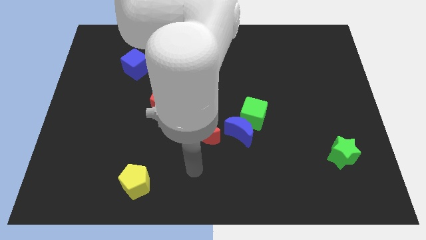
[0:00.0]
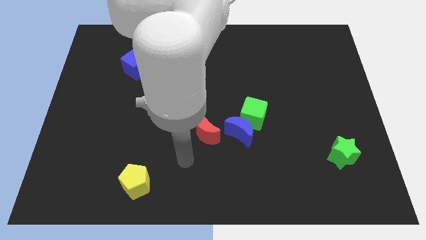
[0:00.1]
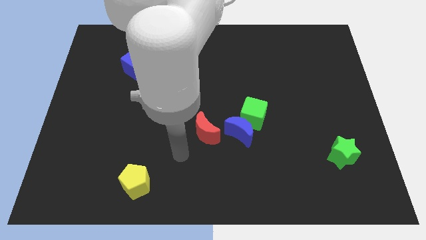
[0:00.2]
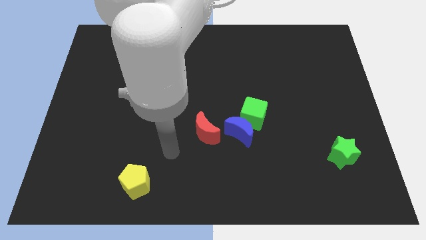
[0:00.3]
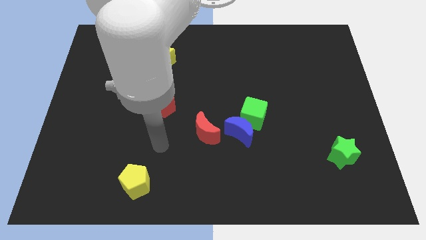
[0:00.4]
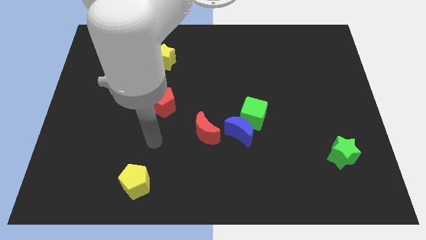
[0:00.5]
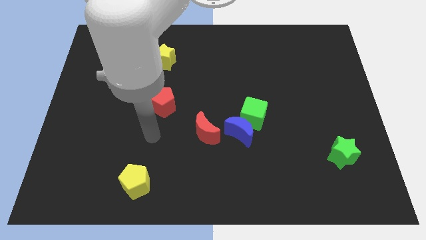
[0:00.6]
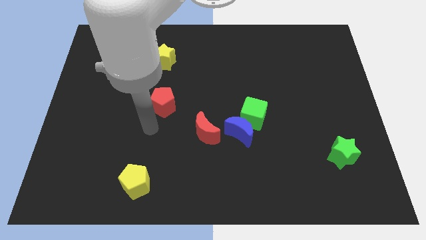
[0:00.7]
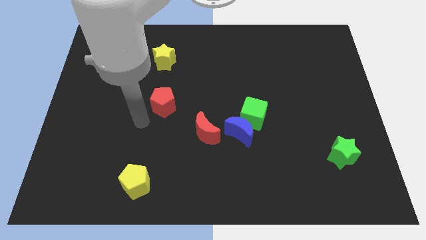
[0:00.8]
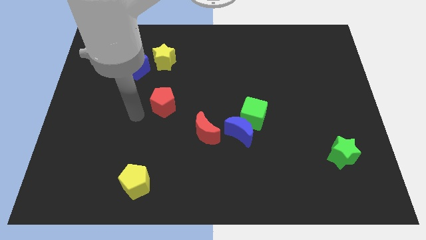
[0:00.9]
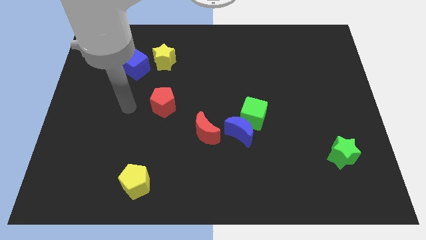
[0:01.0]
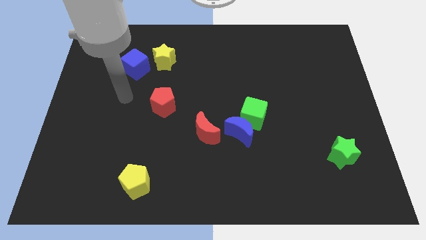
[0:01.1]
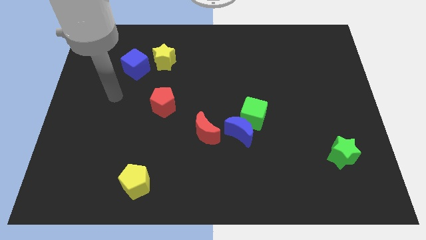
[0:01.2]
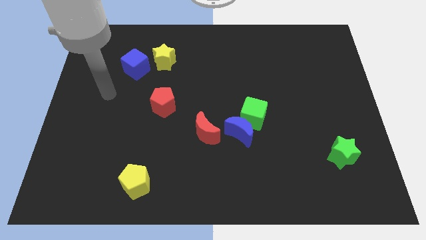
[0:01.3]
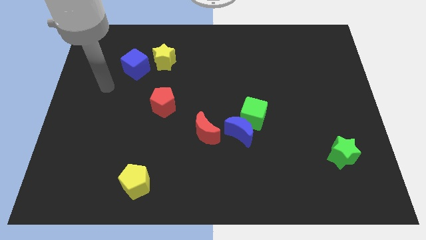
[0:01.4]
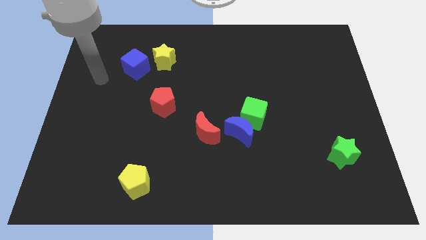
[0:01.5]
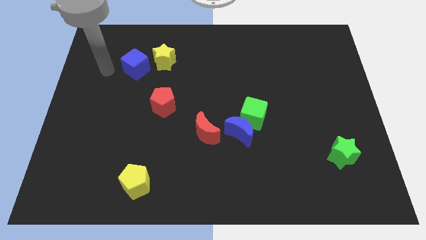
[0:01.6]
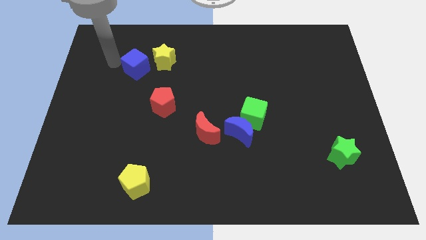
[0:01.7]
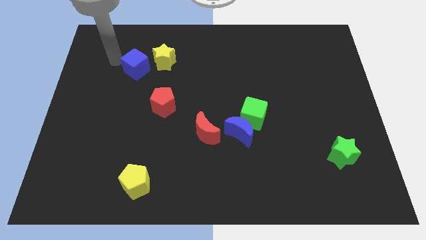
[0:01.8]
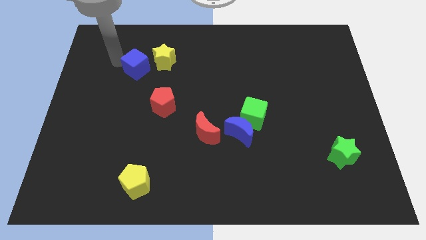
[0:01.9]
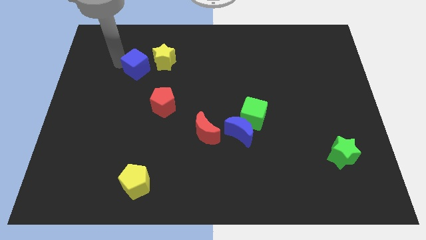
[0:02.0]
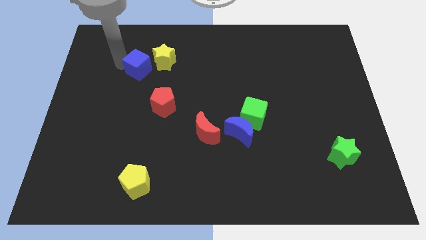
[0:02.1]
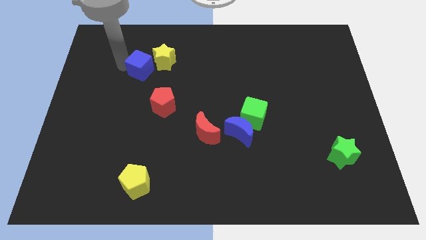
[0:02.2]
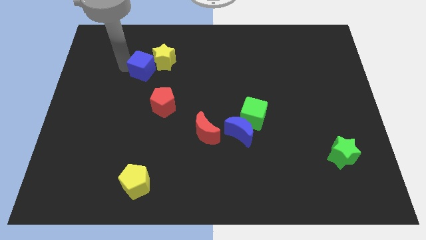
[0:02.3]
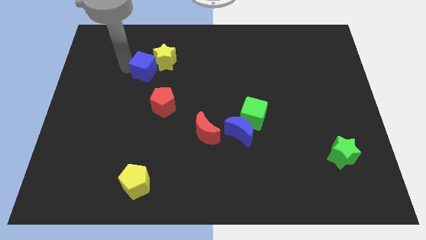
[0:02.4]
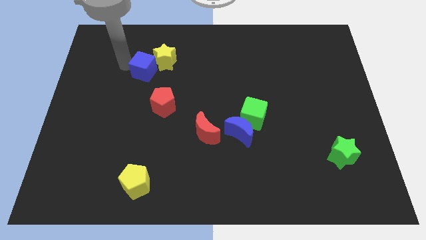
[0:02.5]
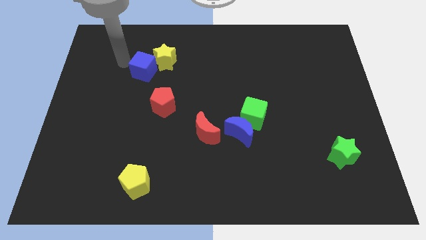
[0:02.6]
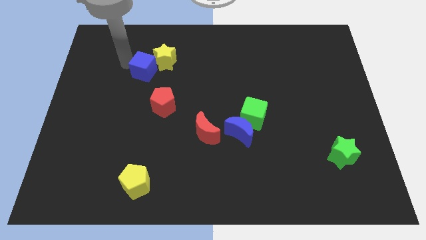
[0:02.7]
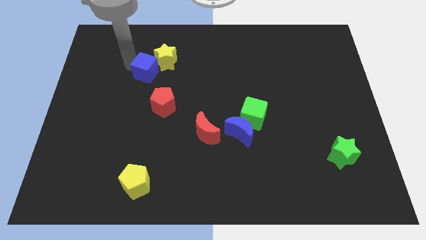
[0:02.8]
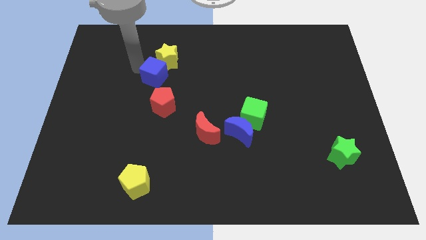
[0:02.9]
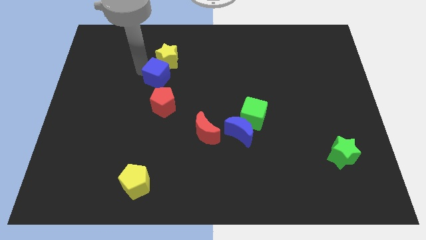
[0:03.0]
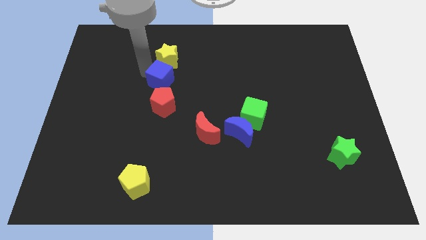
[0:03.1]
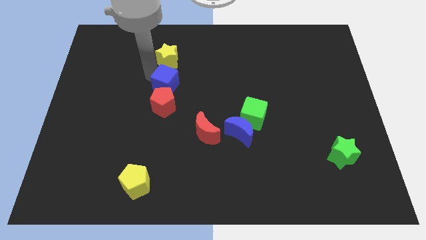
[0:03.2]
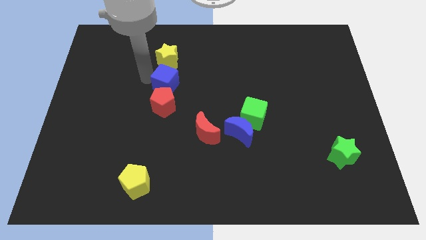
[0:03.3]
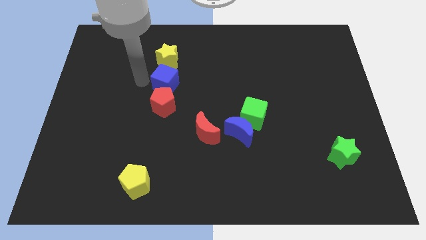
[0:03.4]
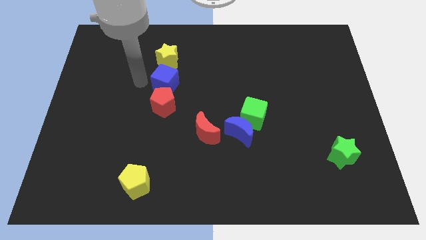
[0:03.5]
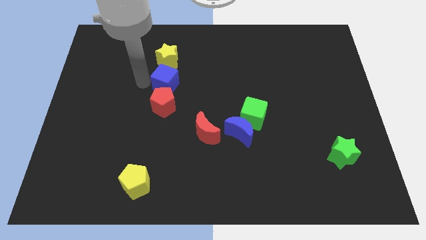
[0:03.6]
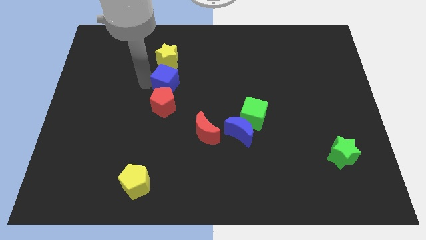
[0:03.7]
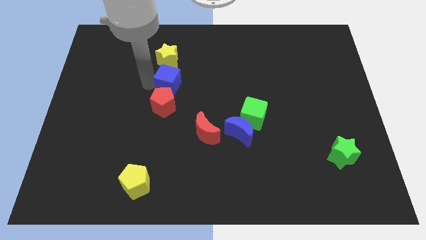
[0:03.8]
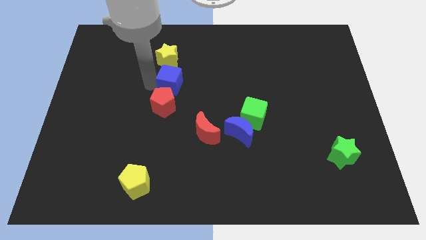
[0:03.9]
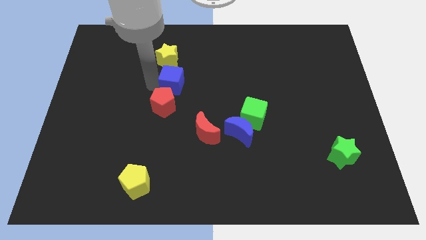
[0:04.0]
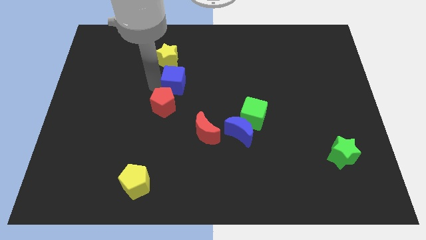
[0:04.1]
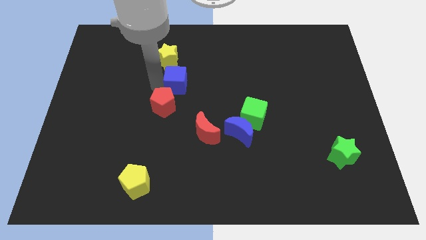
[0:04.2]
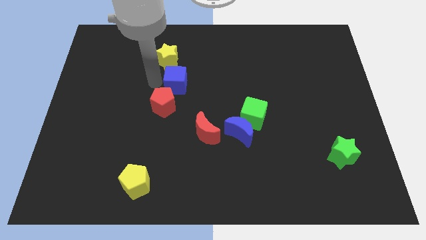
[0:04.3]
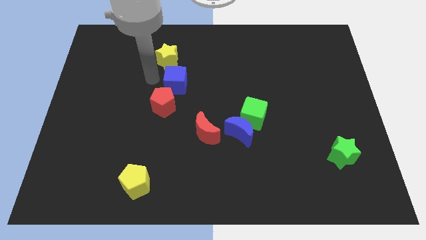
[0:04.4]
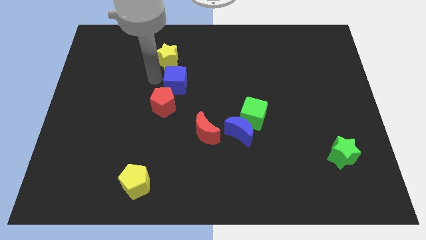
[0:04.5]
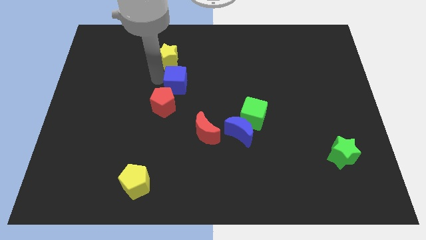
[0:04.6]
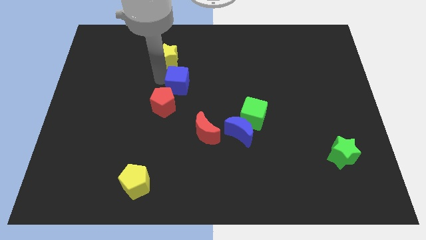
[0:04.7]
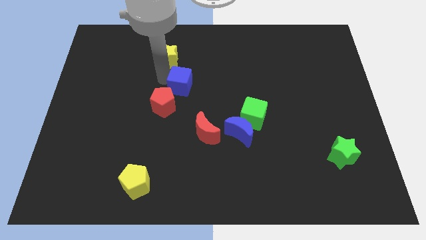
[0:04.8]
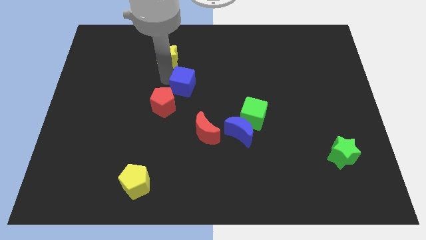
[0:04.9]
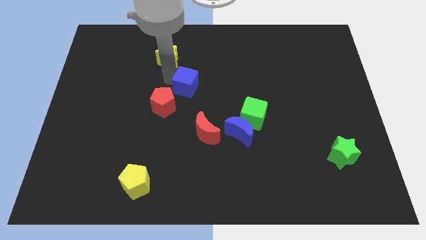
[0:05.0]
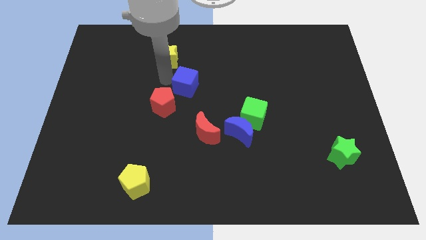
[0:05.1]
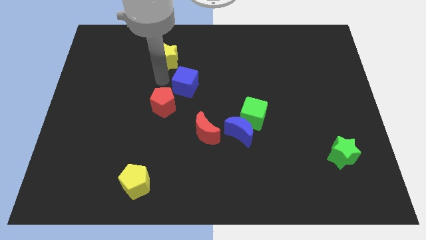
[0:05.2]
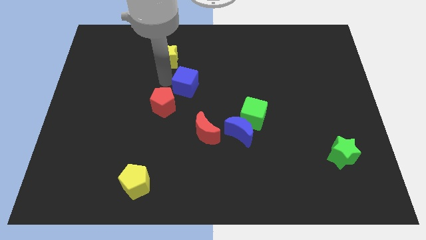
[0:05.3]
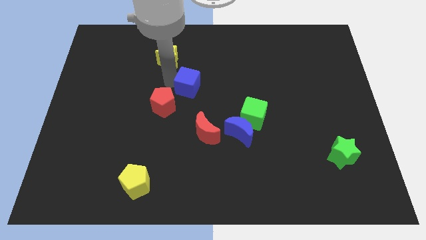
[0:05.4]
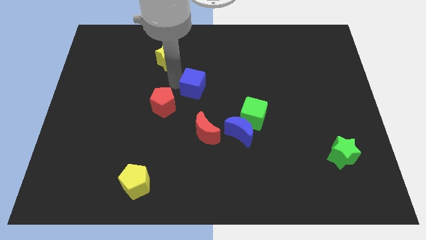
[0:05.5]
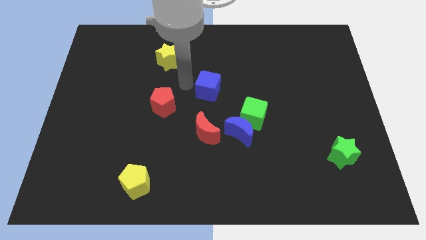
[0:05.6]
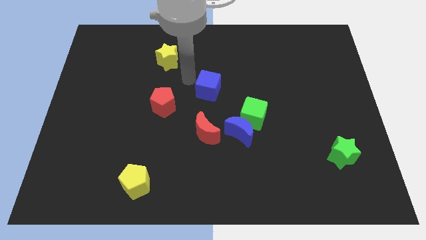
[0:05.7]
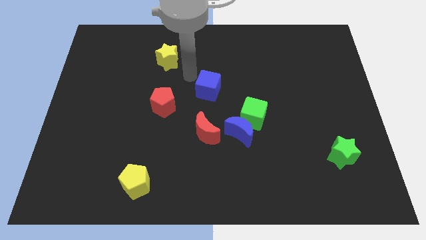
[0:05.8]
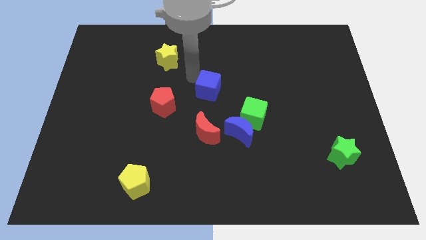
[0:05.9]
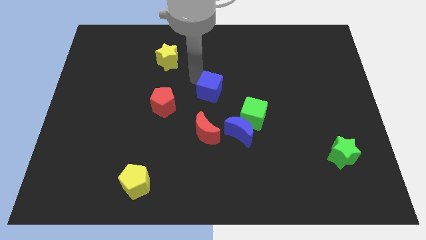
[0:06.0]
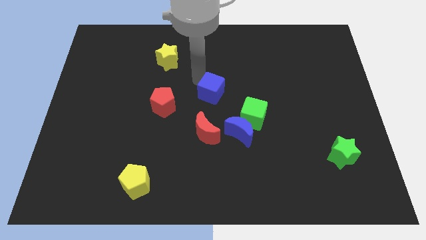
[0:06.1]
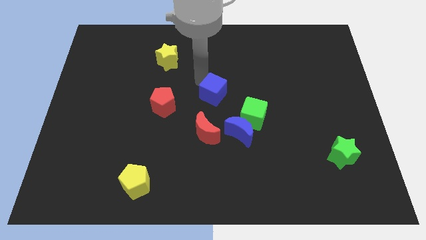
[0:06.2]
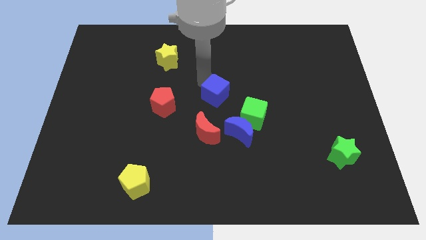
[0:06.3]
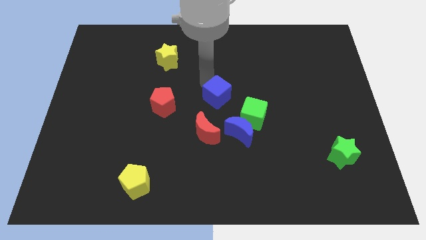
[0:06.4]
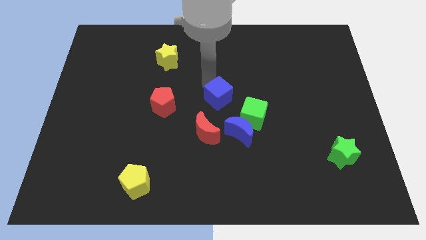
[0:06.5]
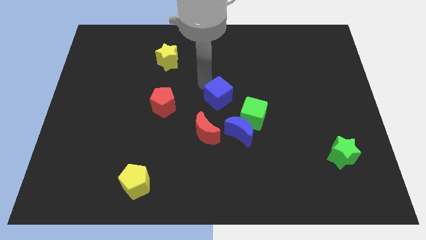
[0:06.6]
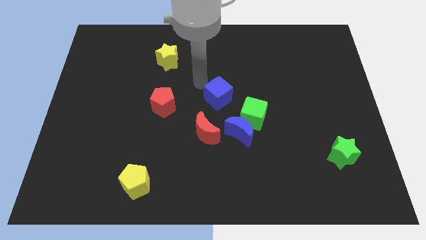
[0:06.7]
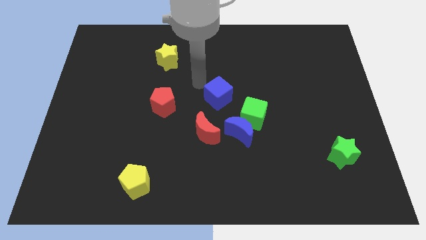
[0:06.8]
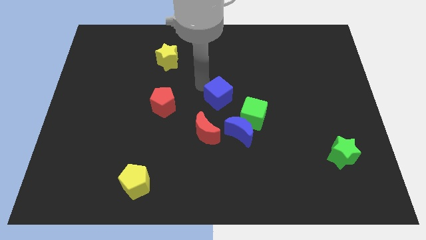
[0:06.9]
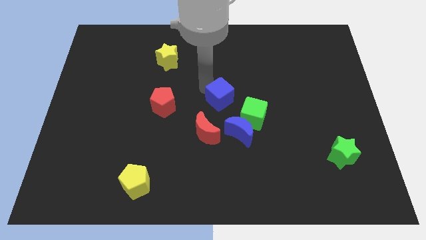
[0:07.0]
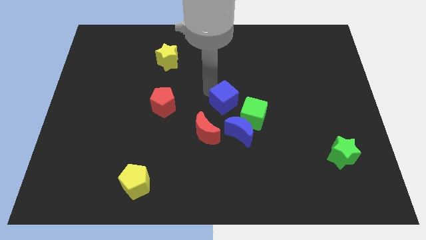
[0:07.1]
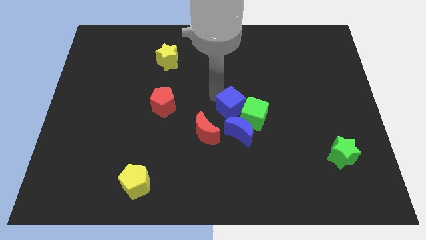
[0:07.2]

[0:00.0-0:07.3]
push the blue cube towards the green cube

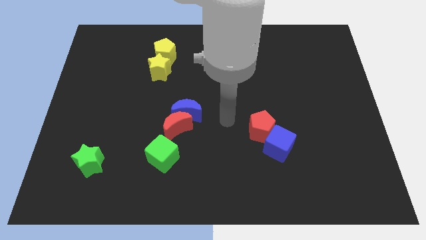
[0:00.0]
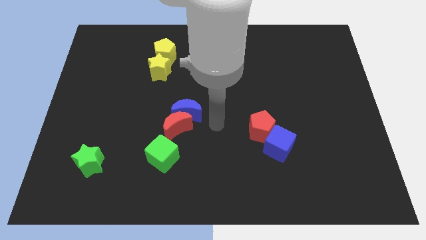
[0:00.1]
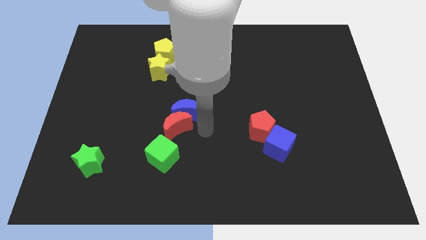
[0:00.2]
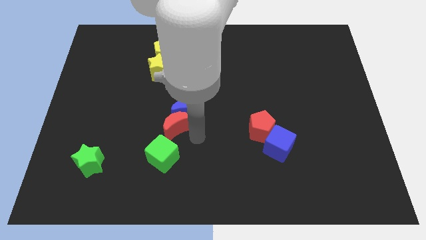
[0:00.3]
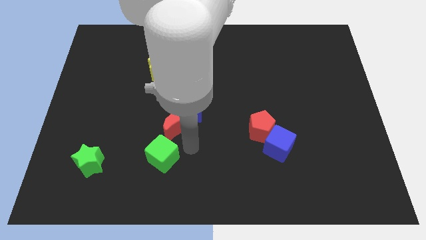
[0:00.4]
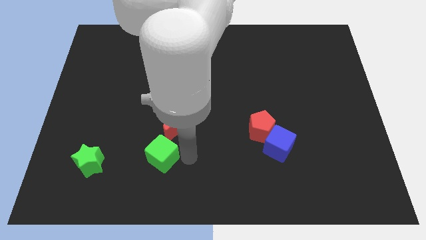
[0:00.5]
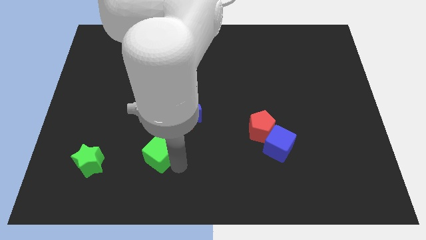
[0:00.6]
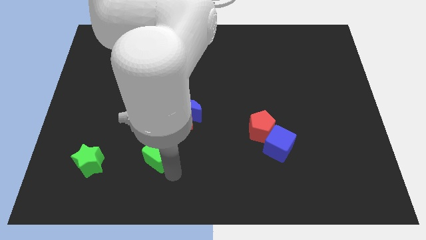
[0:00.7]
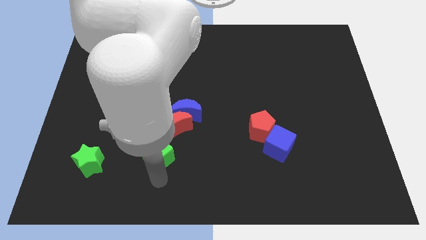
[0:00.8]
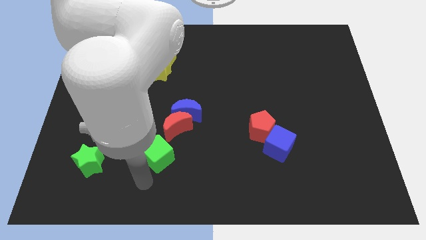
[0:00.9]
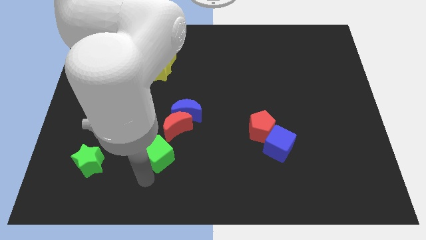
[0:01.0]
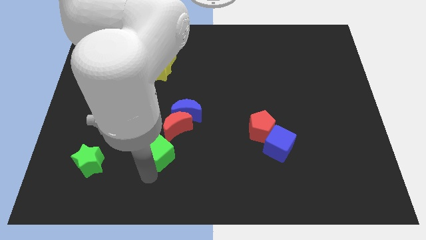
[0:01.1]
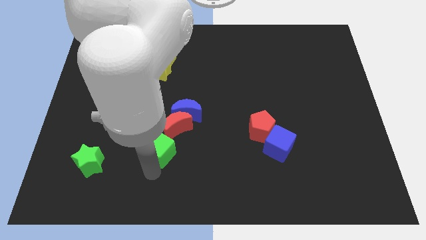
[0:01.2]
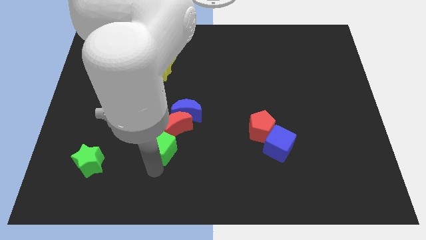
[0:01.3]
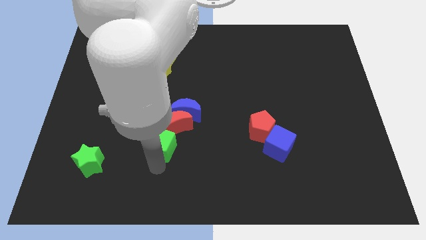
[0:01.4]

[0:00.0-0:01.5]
slide the green cube towards the red moon
